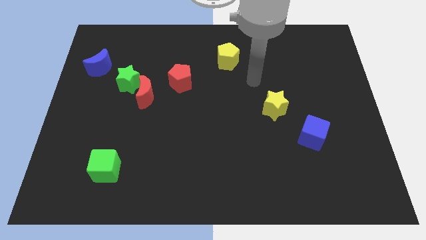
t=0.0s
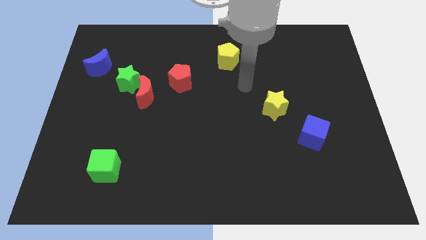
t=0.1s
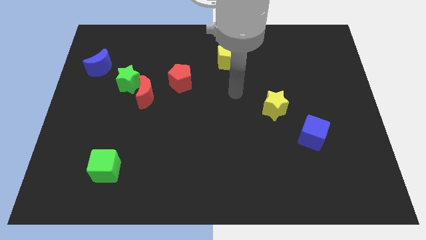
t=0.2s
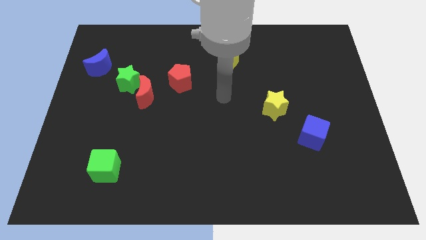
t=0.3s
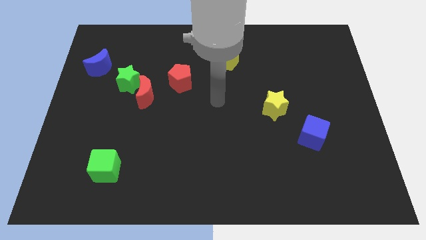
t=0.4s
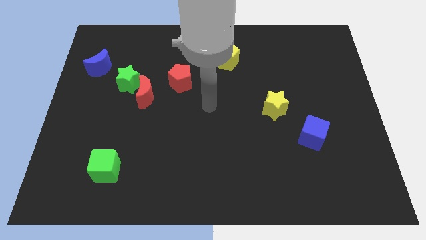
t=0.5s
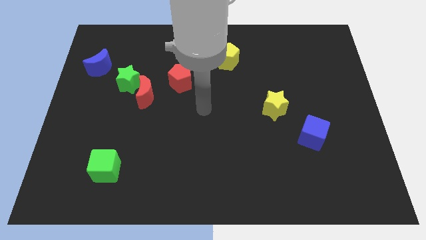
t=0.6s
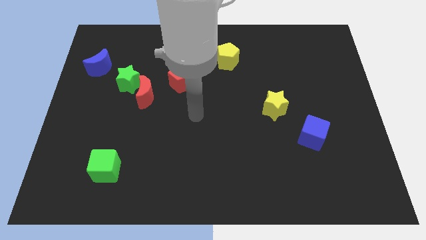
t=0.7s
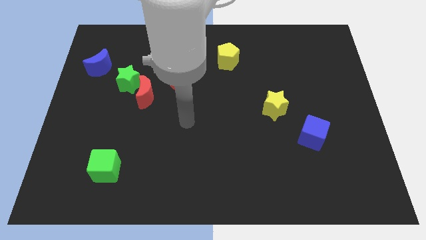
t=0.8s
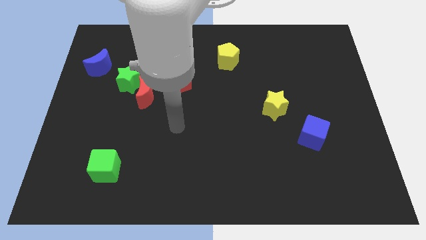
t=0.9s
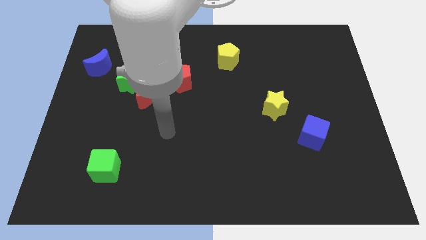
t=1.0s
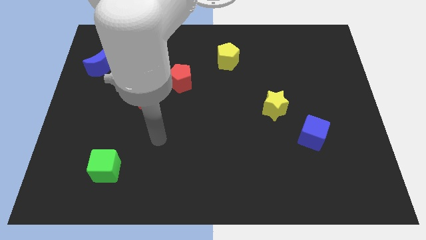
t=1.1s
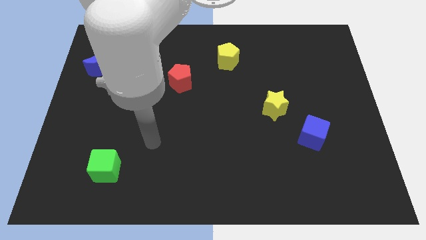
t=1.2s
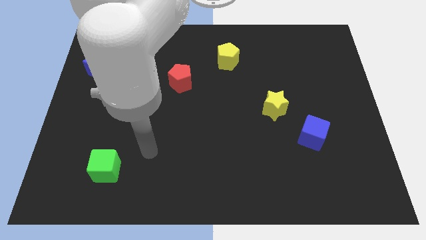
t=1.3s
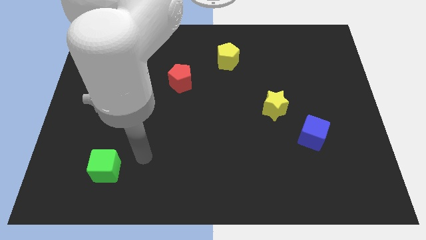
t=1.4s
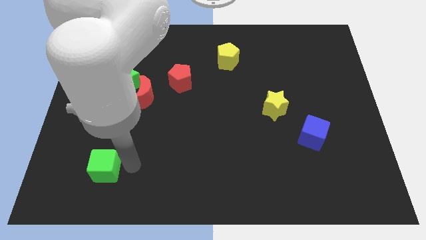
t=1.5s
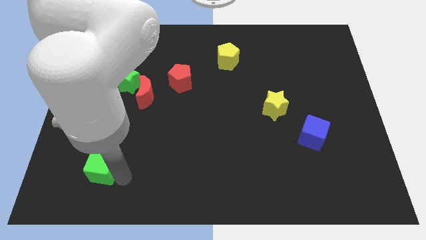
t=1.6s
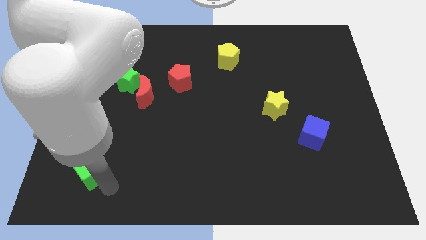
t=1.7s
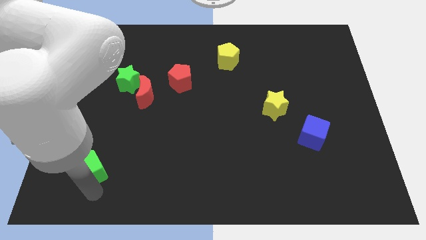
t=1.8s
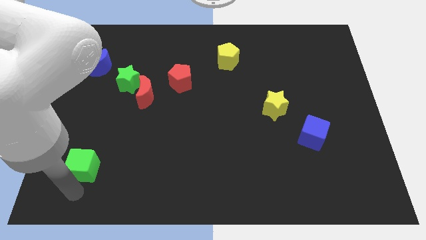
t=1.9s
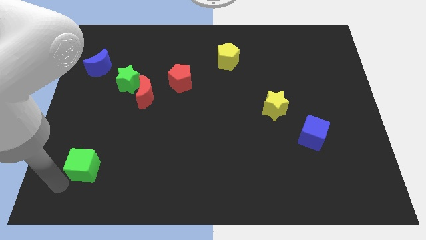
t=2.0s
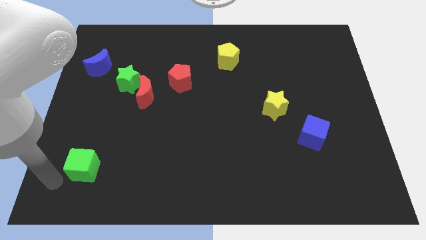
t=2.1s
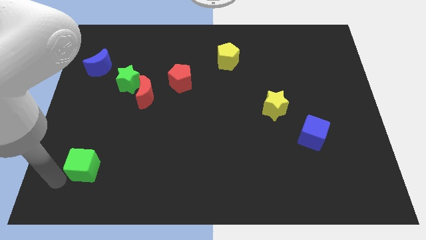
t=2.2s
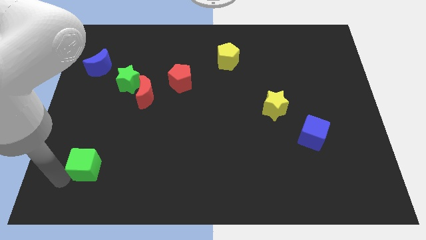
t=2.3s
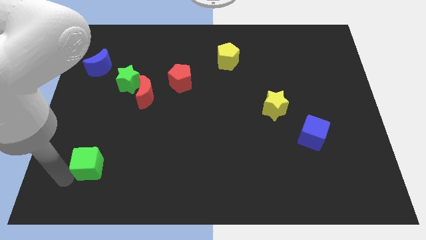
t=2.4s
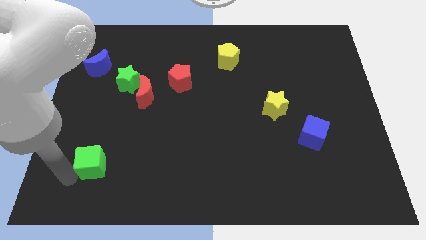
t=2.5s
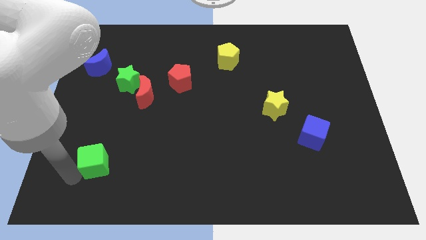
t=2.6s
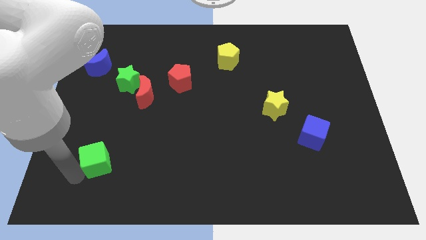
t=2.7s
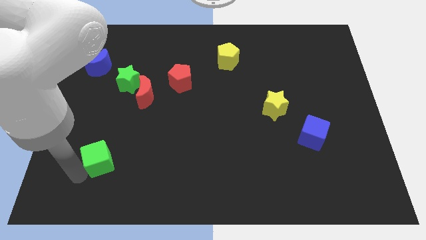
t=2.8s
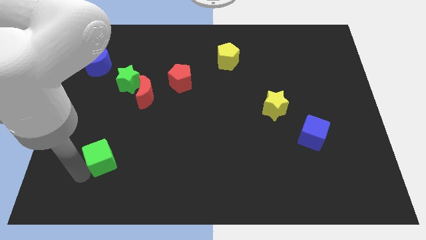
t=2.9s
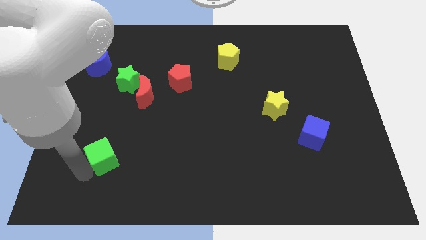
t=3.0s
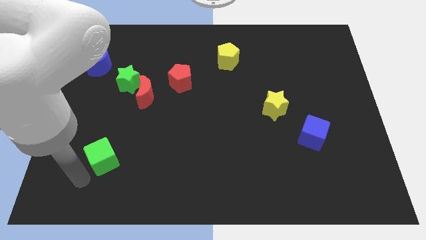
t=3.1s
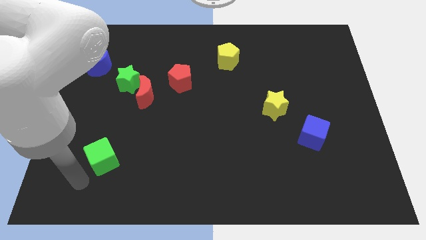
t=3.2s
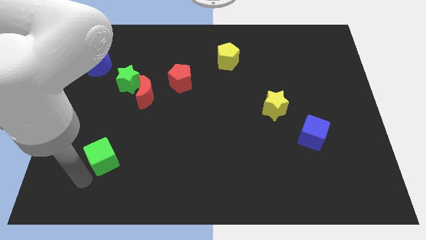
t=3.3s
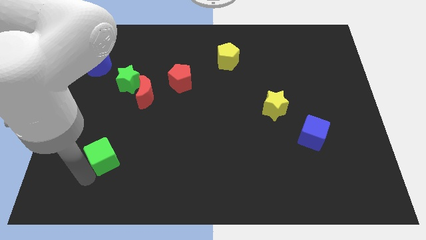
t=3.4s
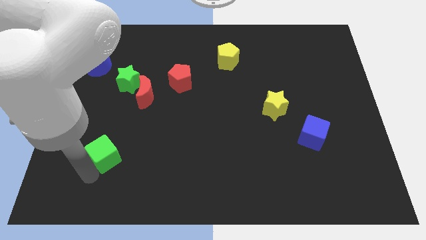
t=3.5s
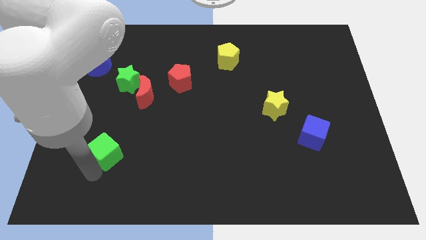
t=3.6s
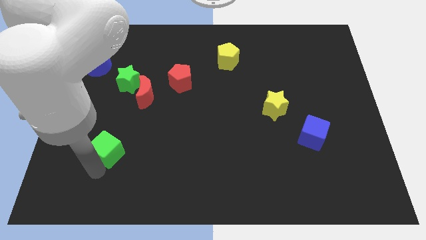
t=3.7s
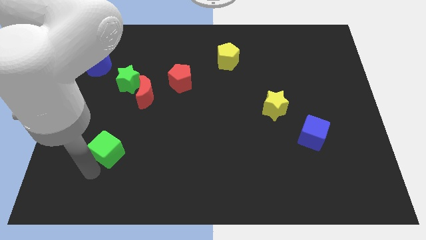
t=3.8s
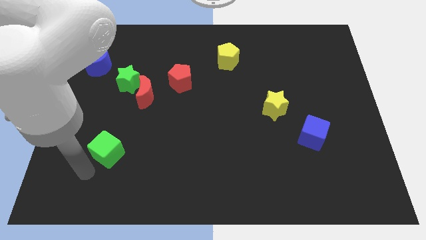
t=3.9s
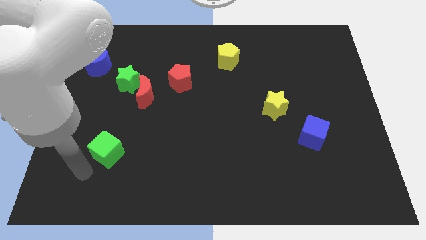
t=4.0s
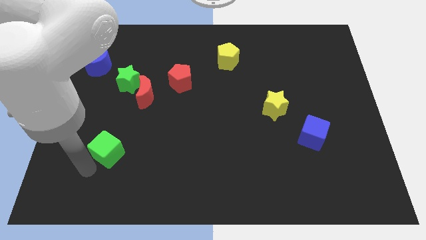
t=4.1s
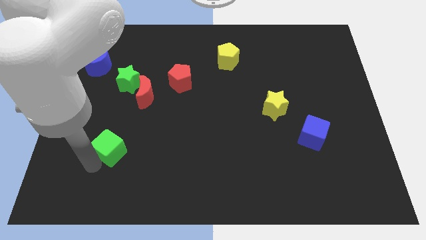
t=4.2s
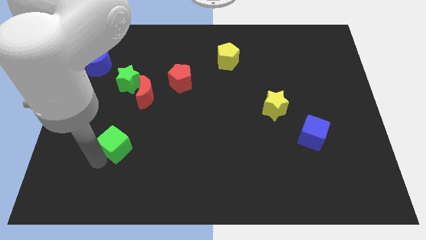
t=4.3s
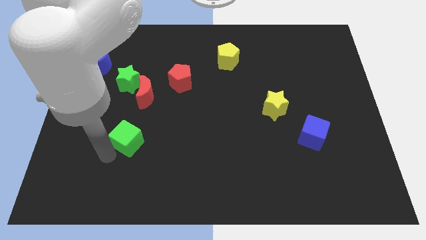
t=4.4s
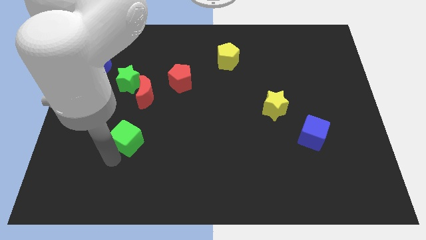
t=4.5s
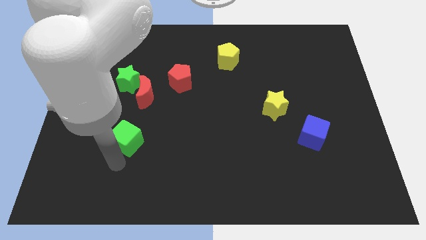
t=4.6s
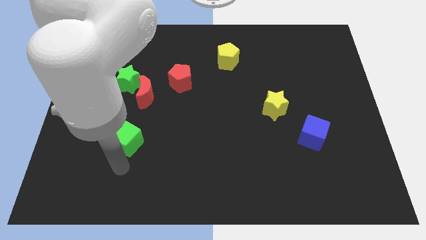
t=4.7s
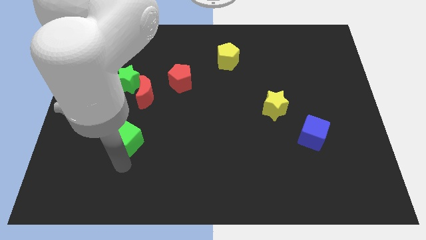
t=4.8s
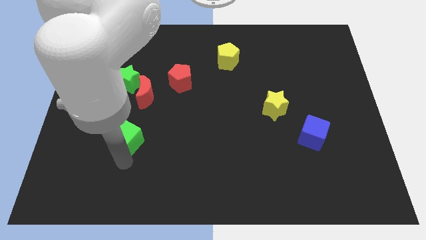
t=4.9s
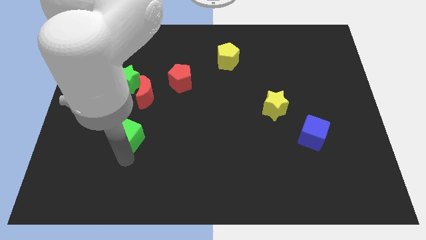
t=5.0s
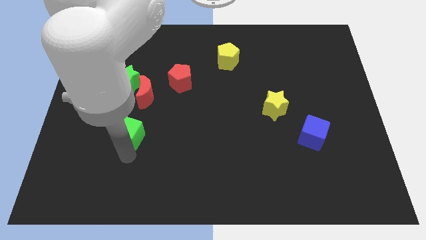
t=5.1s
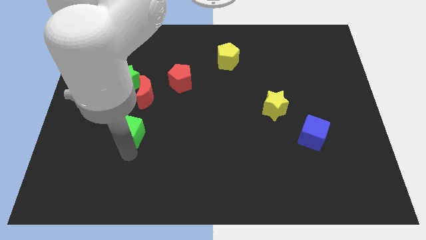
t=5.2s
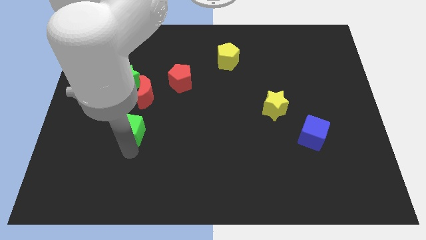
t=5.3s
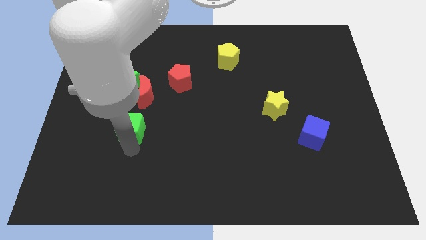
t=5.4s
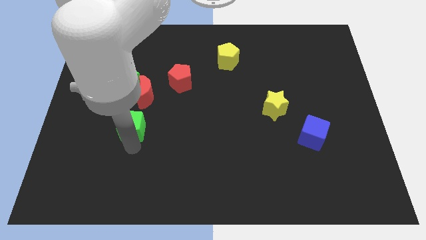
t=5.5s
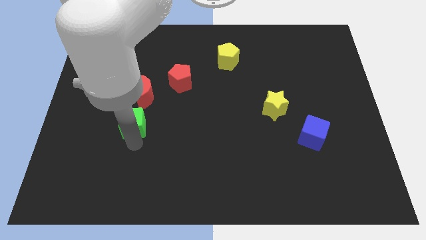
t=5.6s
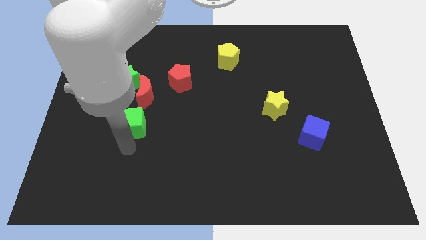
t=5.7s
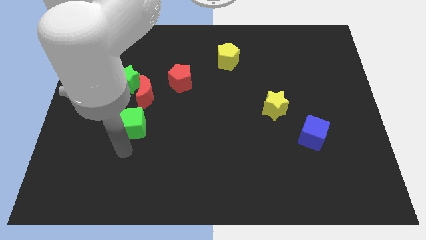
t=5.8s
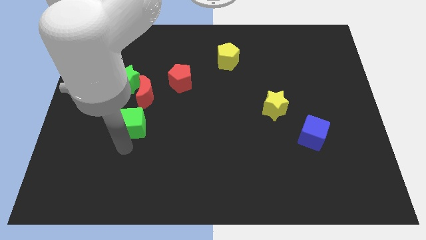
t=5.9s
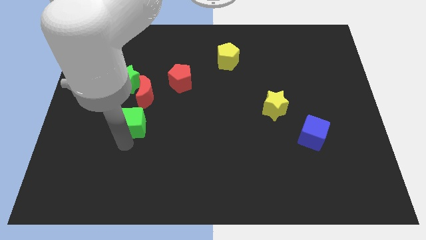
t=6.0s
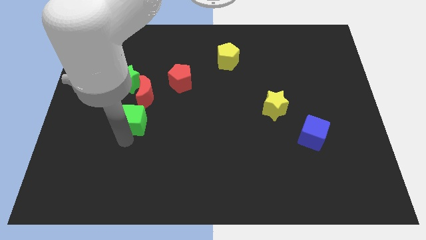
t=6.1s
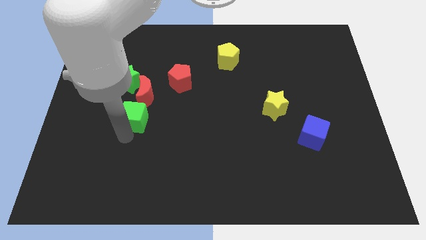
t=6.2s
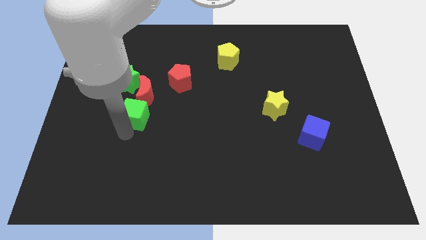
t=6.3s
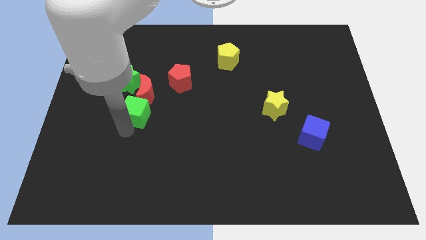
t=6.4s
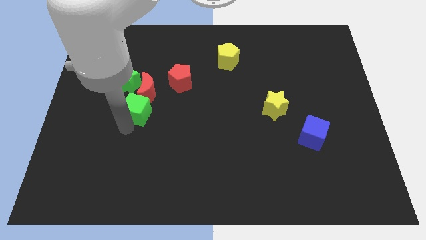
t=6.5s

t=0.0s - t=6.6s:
put the green cube to the red moon

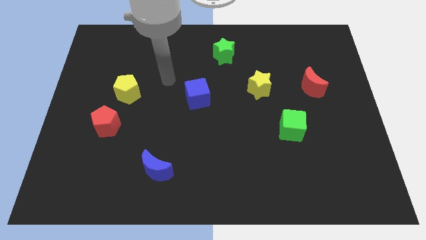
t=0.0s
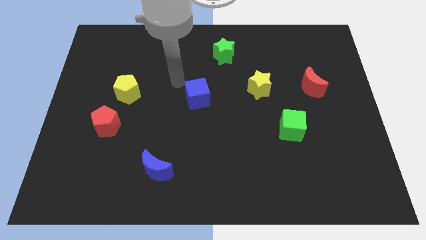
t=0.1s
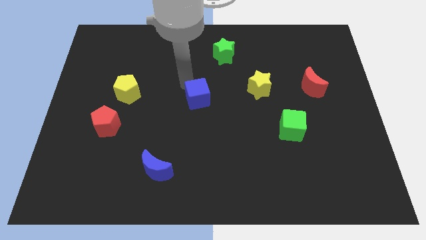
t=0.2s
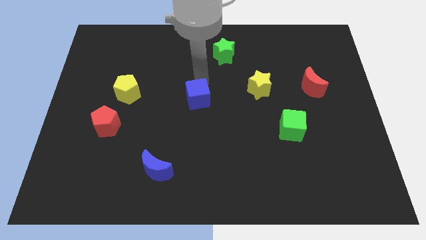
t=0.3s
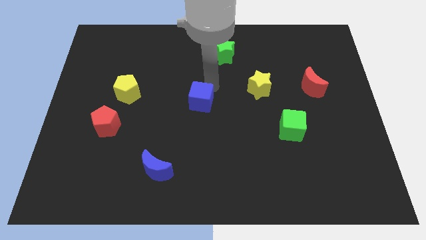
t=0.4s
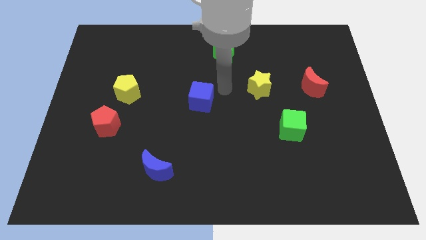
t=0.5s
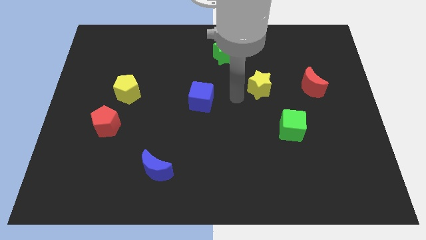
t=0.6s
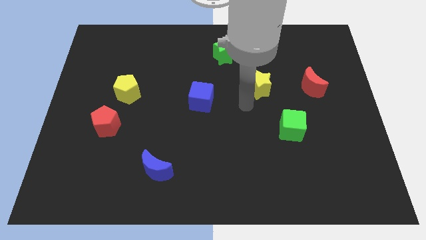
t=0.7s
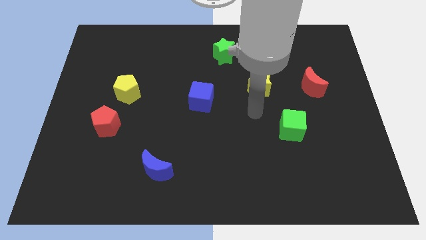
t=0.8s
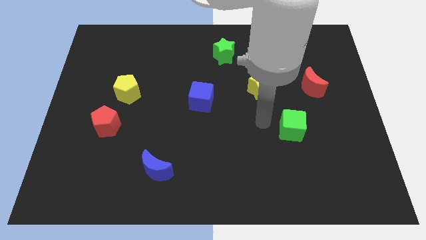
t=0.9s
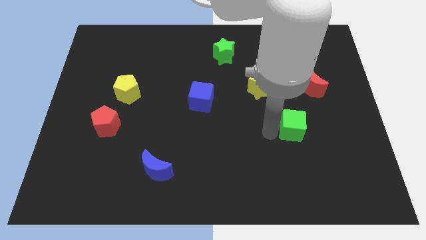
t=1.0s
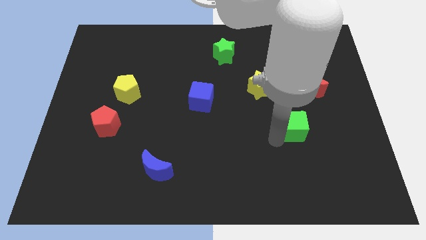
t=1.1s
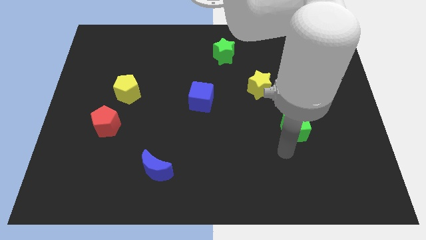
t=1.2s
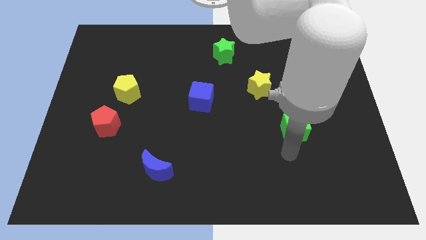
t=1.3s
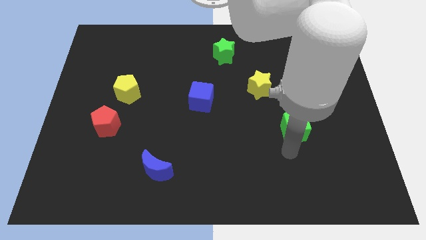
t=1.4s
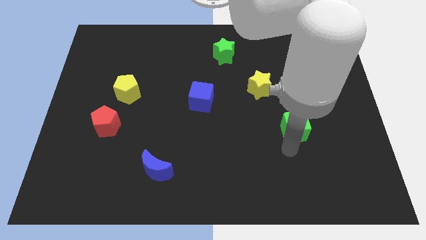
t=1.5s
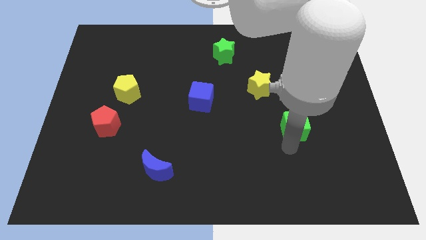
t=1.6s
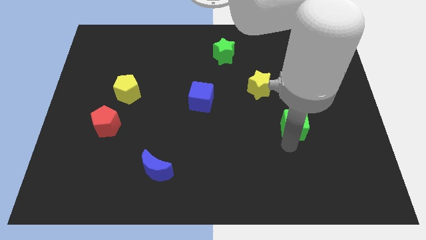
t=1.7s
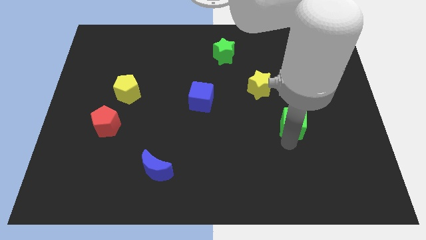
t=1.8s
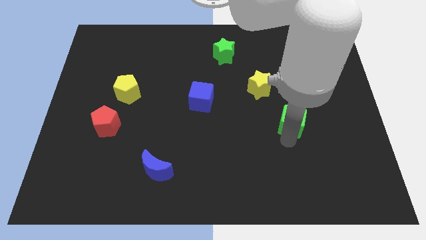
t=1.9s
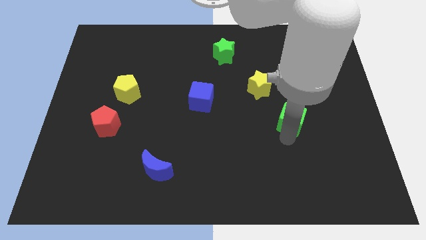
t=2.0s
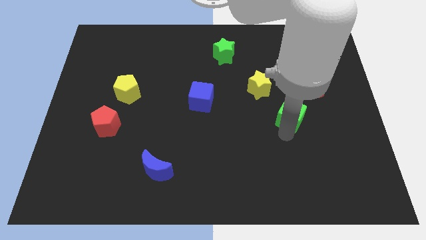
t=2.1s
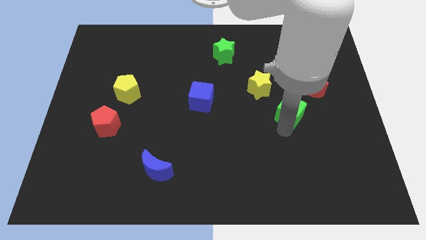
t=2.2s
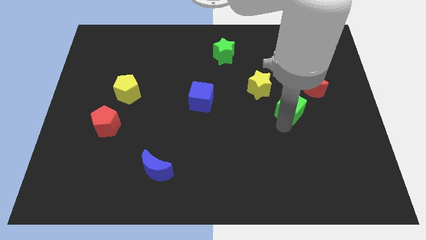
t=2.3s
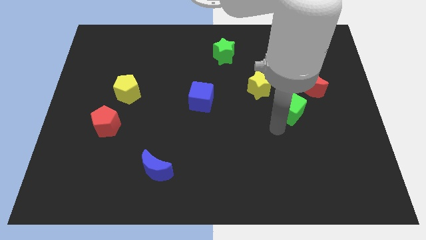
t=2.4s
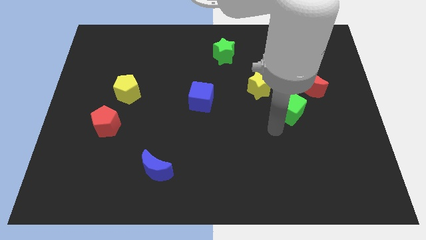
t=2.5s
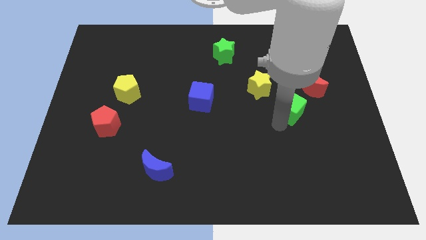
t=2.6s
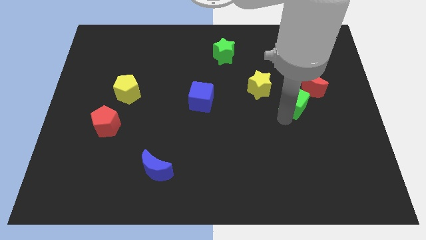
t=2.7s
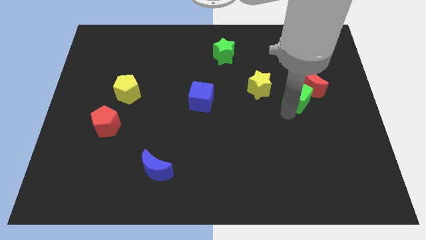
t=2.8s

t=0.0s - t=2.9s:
slide the green cube next to the red moon
